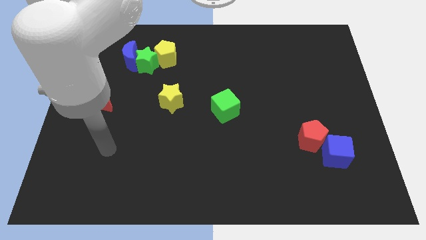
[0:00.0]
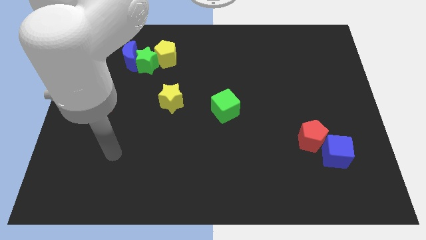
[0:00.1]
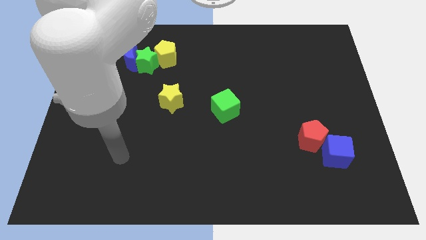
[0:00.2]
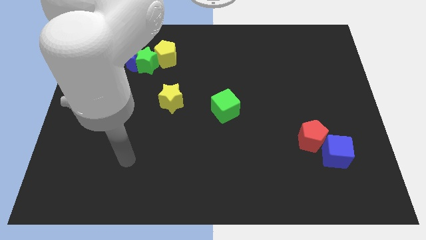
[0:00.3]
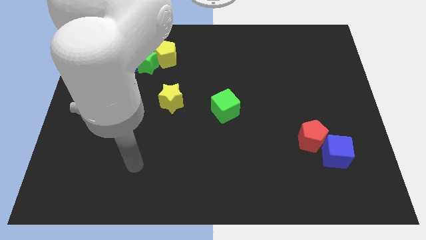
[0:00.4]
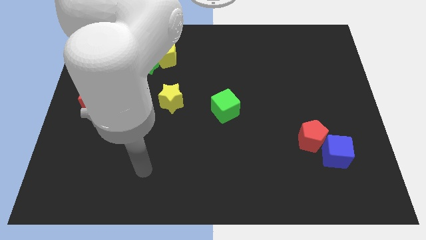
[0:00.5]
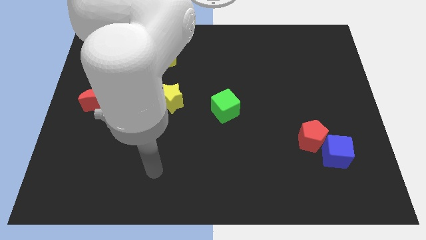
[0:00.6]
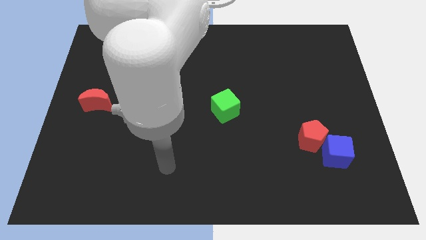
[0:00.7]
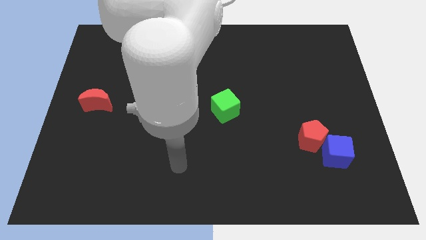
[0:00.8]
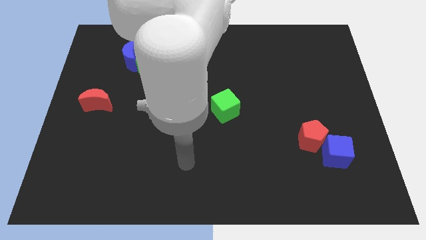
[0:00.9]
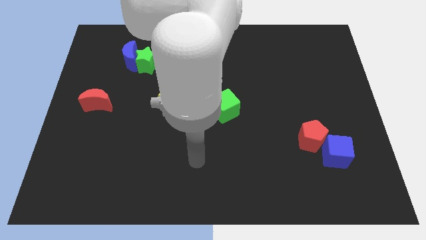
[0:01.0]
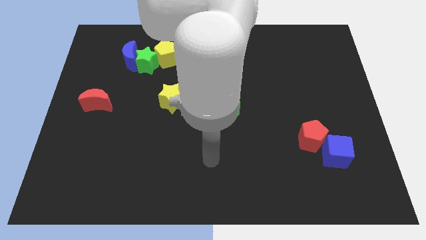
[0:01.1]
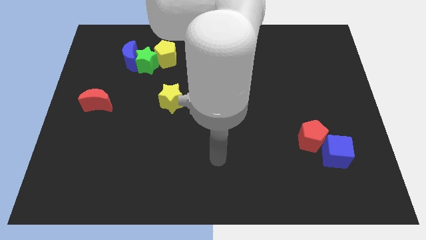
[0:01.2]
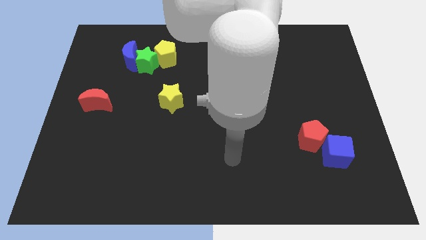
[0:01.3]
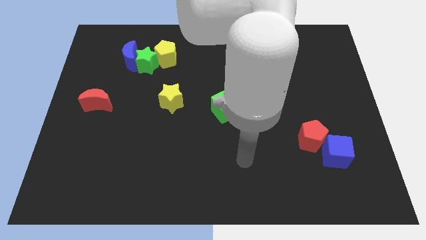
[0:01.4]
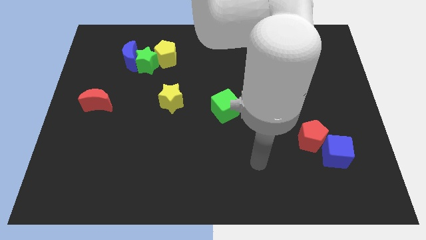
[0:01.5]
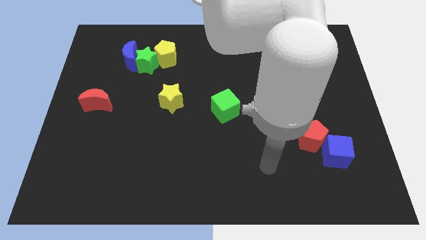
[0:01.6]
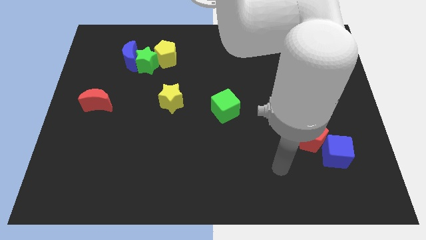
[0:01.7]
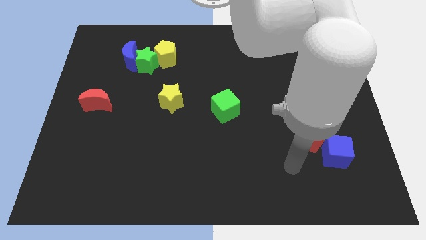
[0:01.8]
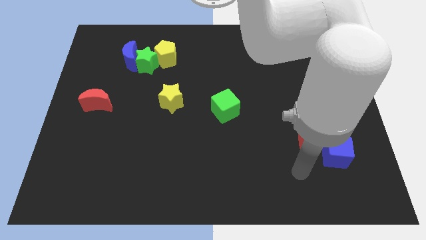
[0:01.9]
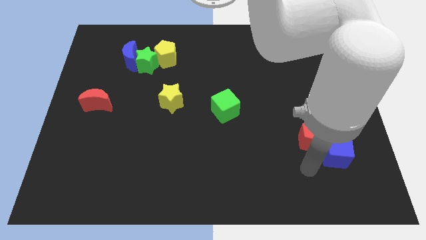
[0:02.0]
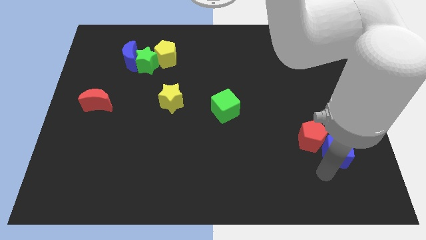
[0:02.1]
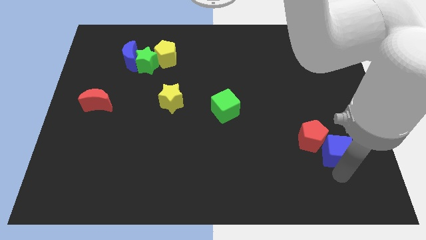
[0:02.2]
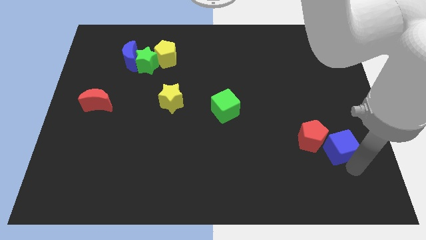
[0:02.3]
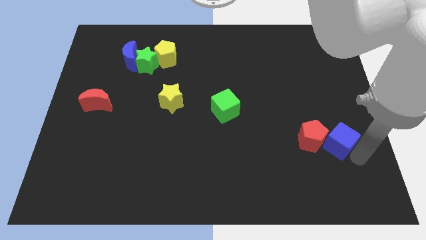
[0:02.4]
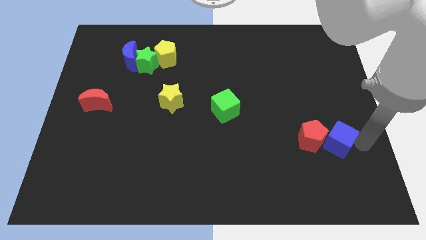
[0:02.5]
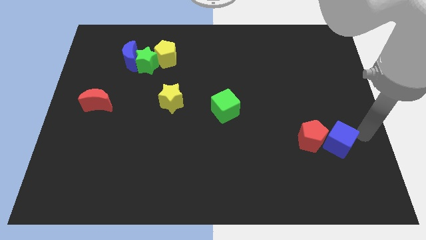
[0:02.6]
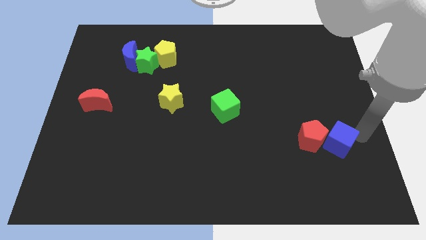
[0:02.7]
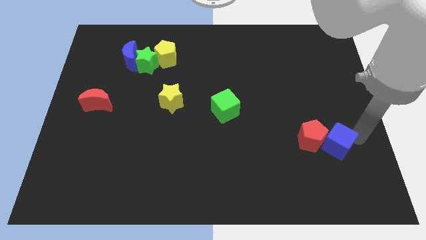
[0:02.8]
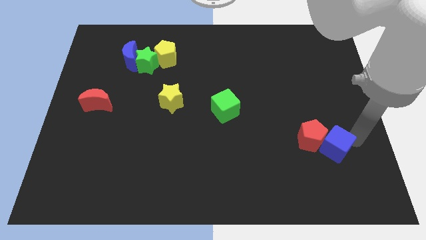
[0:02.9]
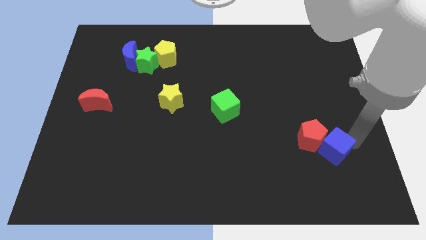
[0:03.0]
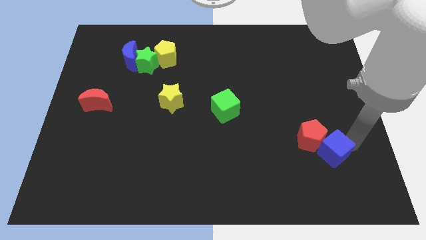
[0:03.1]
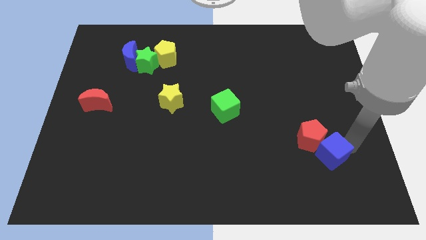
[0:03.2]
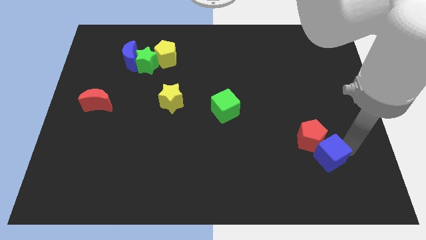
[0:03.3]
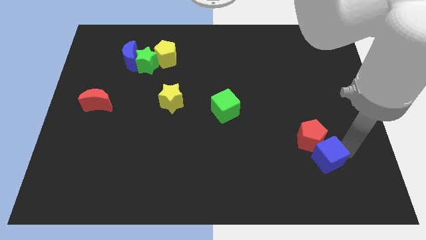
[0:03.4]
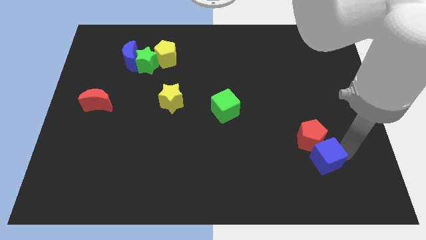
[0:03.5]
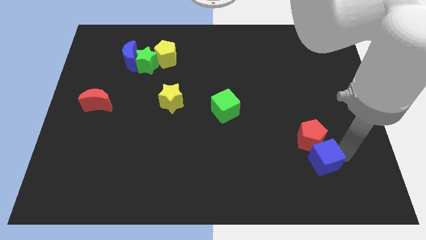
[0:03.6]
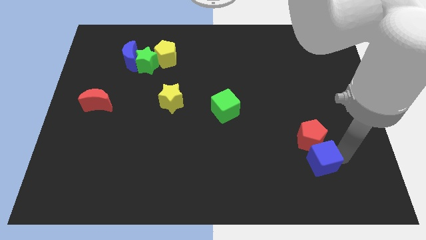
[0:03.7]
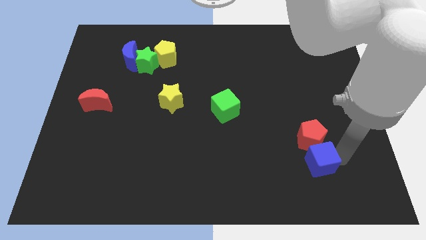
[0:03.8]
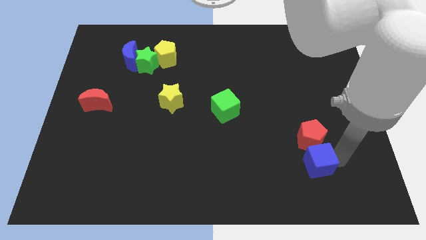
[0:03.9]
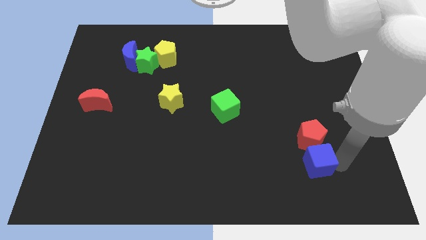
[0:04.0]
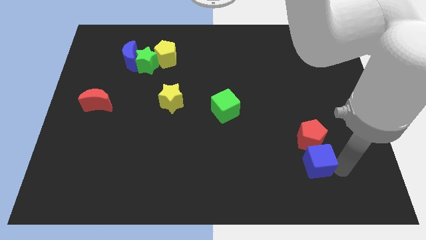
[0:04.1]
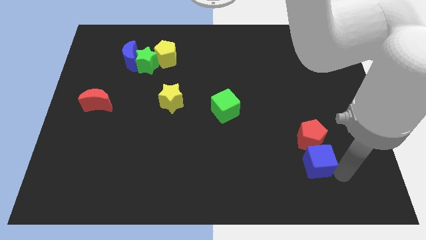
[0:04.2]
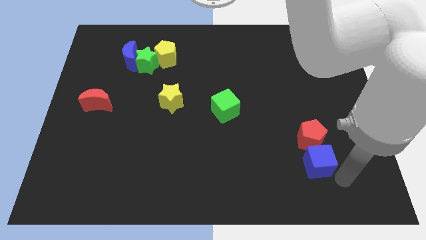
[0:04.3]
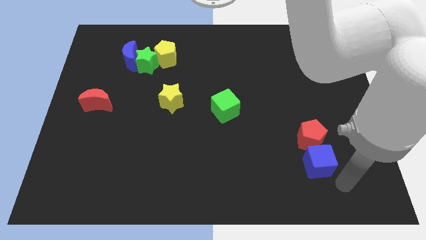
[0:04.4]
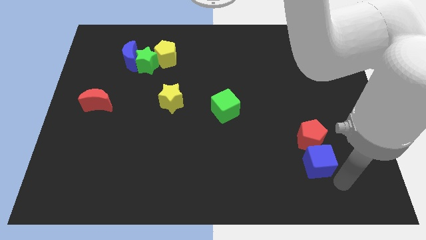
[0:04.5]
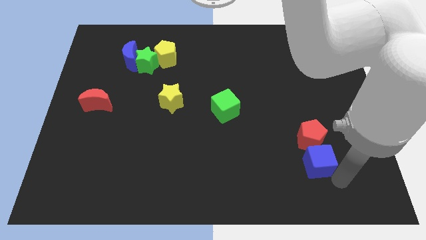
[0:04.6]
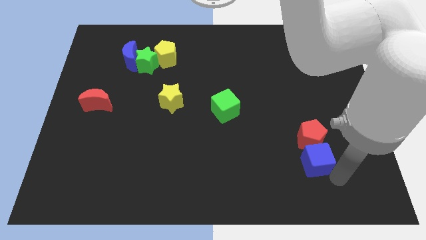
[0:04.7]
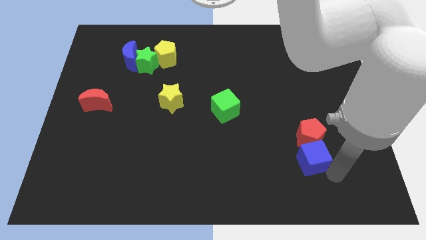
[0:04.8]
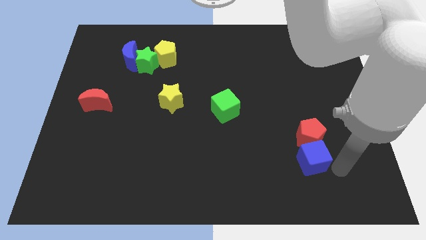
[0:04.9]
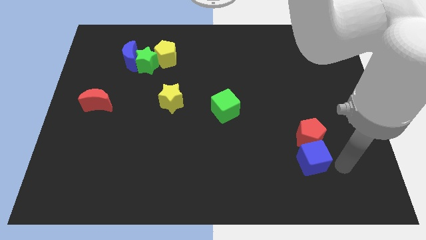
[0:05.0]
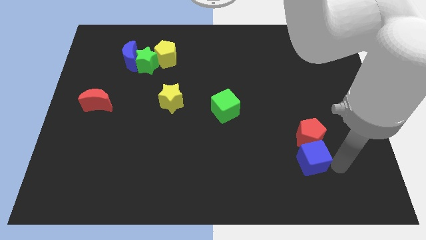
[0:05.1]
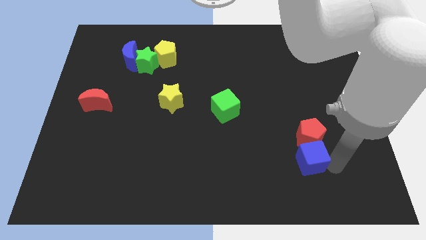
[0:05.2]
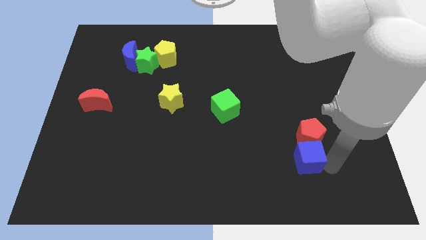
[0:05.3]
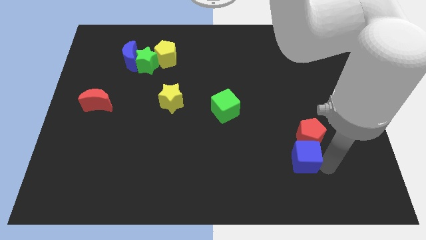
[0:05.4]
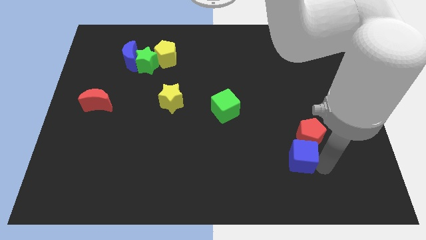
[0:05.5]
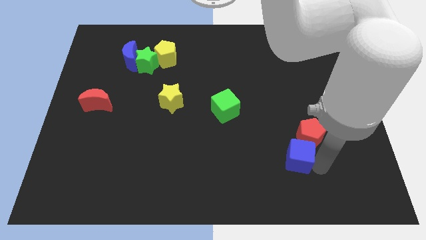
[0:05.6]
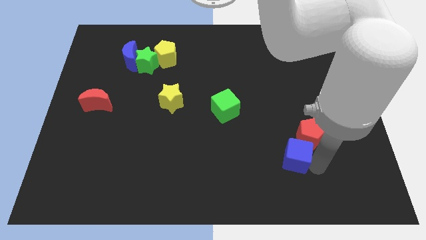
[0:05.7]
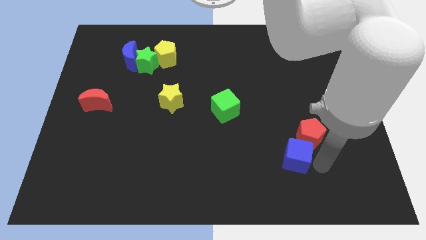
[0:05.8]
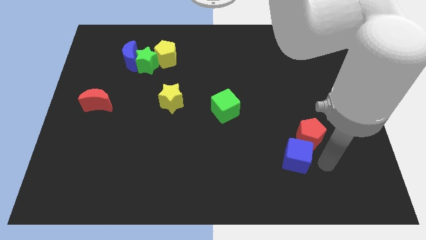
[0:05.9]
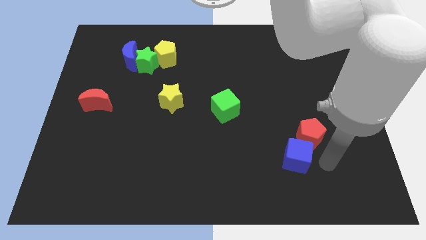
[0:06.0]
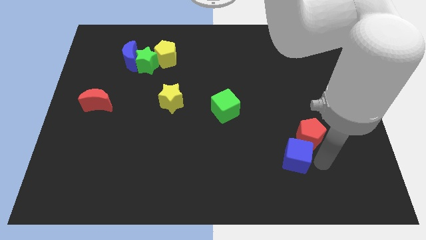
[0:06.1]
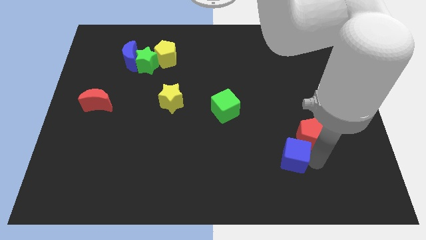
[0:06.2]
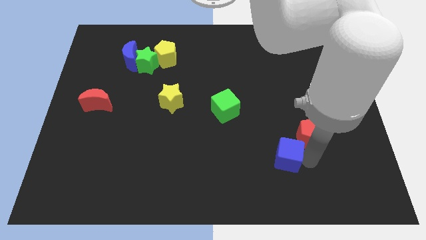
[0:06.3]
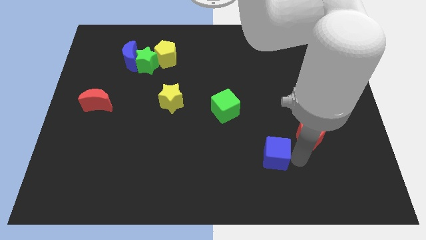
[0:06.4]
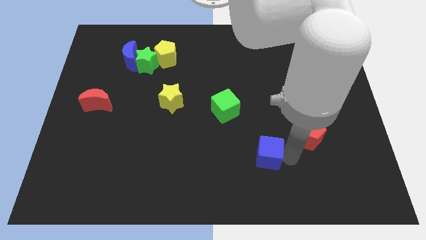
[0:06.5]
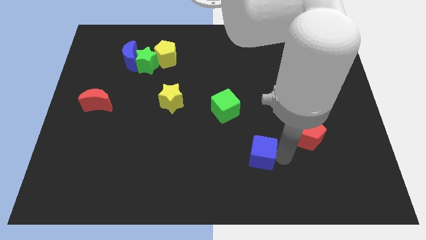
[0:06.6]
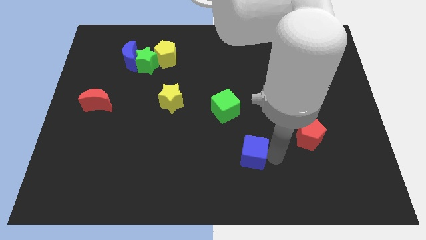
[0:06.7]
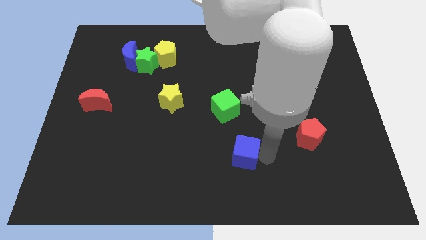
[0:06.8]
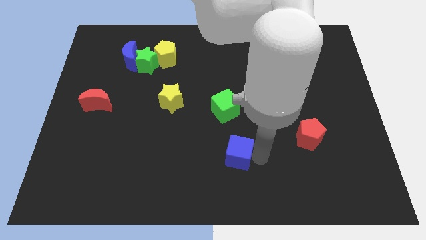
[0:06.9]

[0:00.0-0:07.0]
push the blue cube to the left

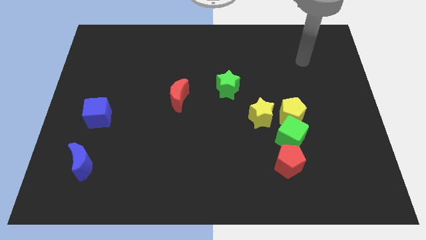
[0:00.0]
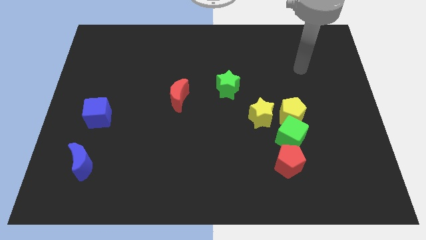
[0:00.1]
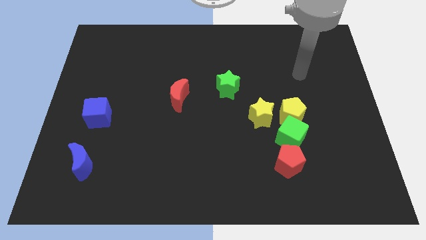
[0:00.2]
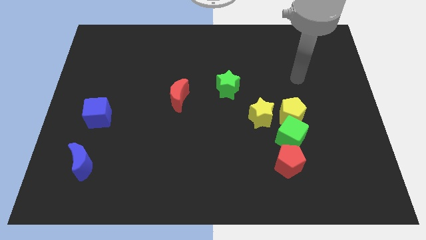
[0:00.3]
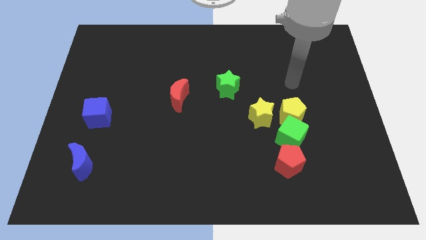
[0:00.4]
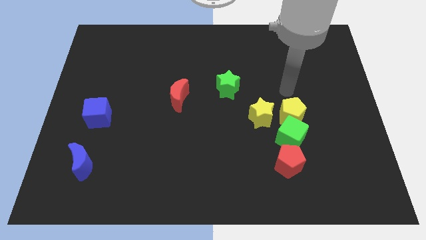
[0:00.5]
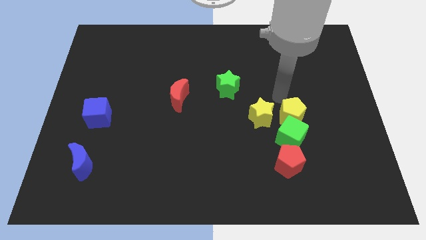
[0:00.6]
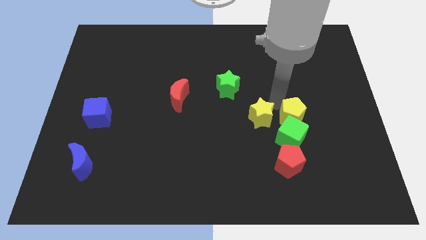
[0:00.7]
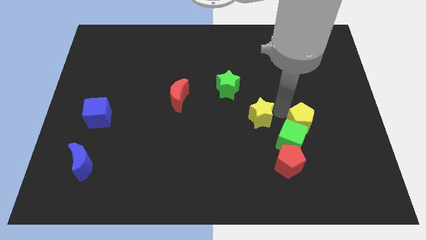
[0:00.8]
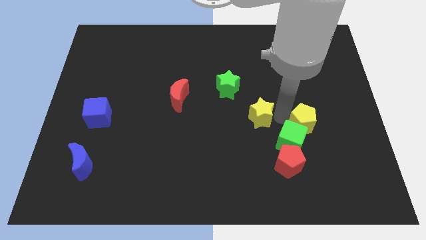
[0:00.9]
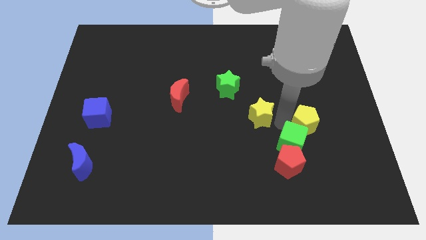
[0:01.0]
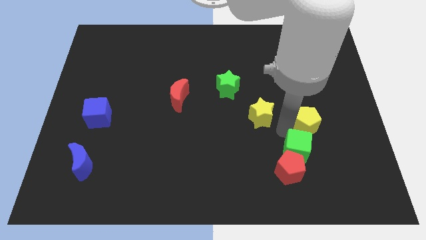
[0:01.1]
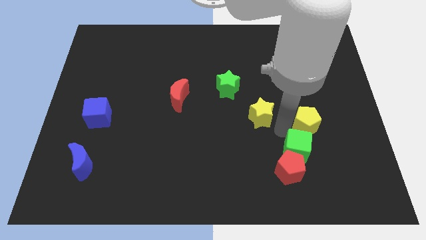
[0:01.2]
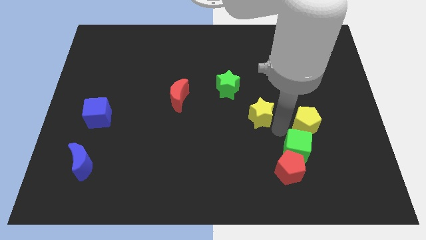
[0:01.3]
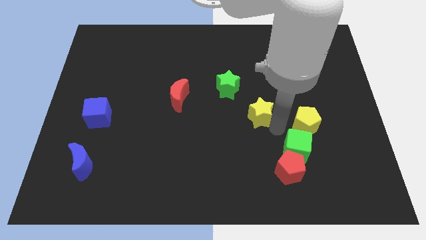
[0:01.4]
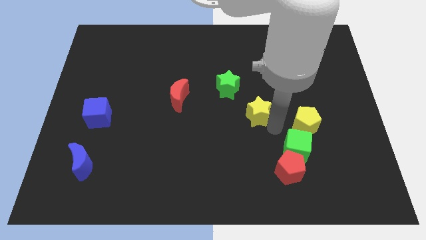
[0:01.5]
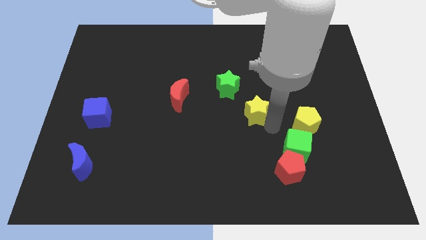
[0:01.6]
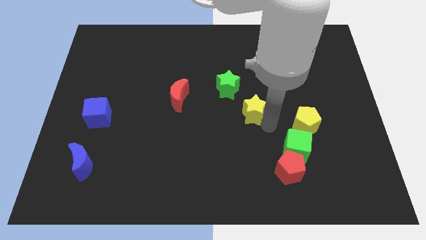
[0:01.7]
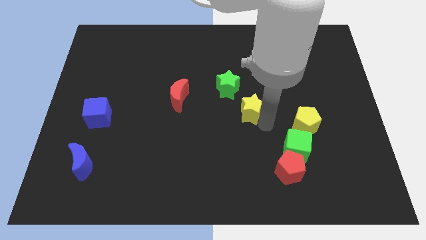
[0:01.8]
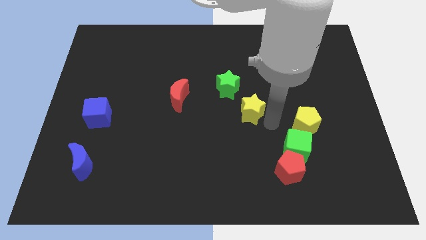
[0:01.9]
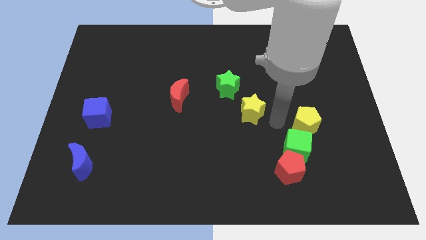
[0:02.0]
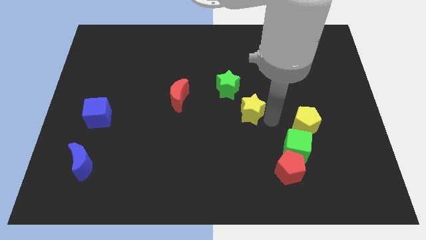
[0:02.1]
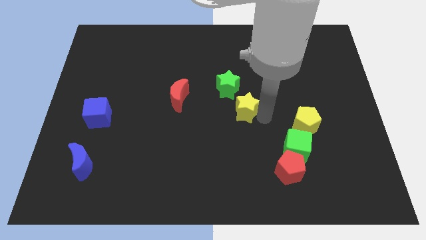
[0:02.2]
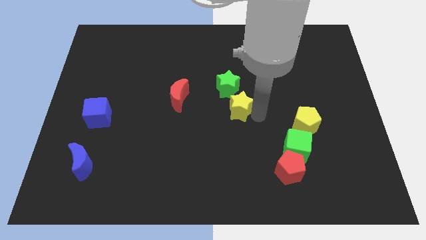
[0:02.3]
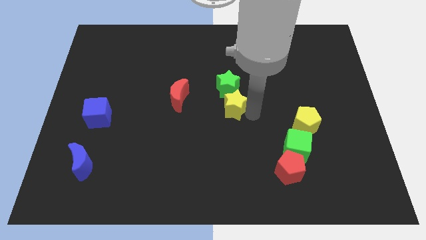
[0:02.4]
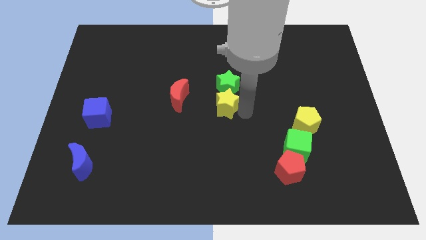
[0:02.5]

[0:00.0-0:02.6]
slightly push the yellow star upwards and then to the left
